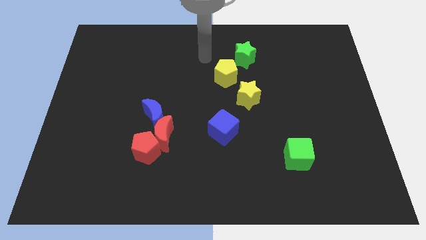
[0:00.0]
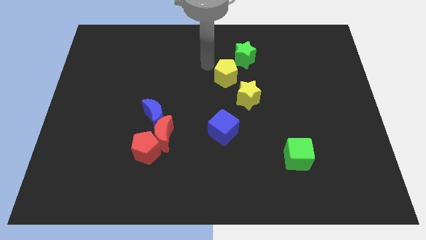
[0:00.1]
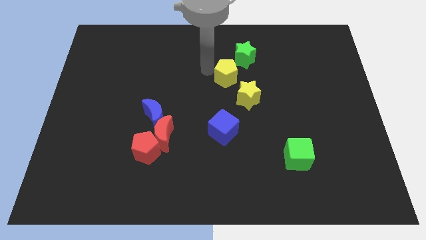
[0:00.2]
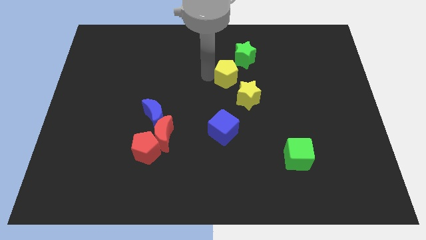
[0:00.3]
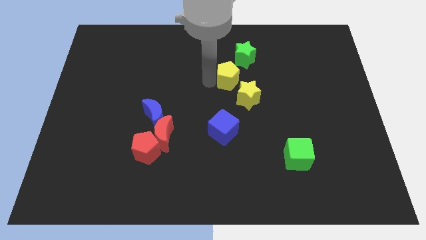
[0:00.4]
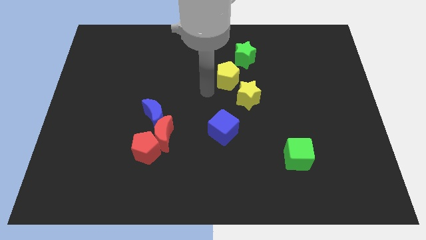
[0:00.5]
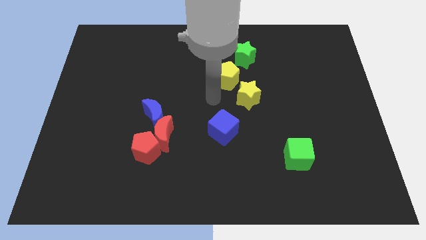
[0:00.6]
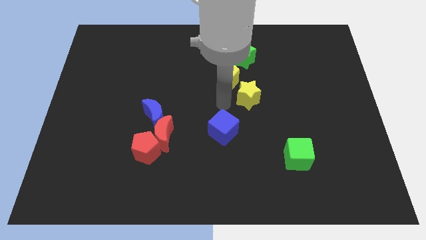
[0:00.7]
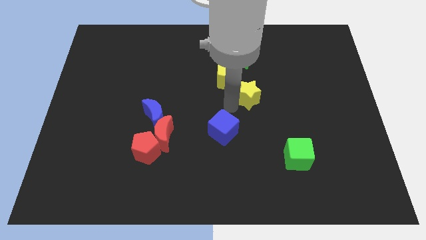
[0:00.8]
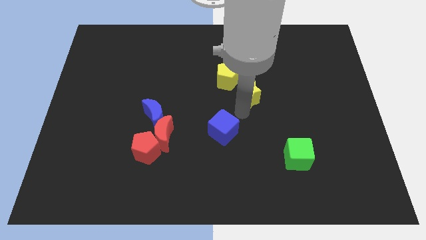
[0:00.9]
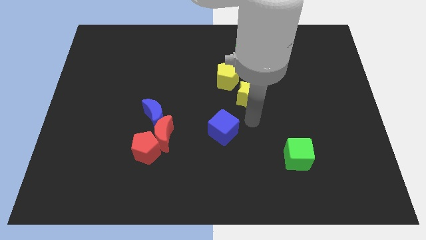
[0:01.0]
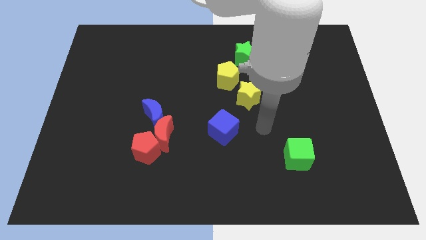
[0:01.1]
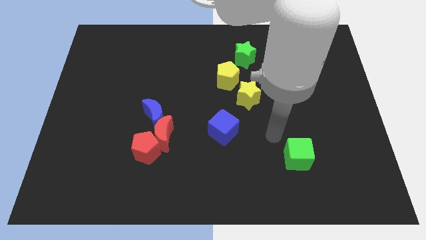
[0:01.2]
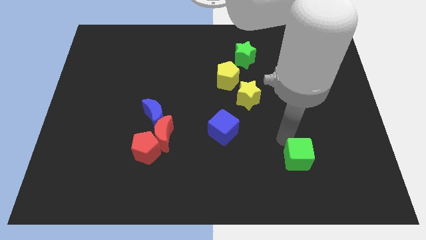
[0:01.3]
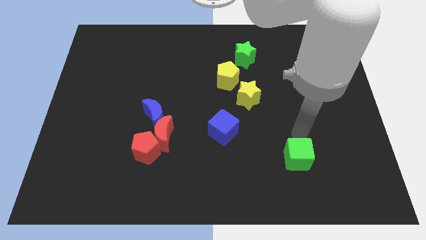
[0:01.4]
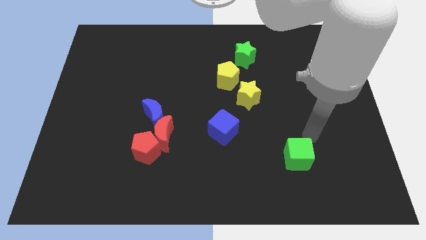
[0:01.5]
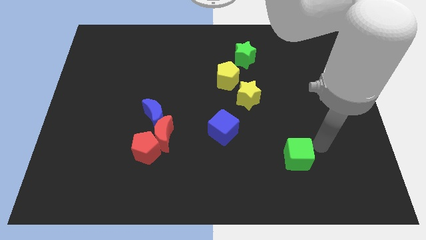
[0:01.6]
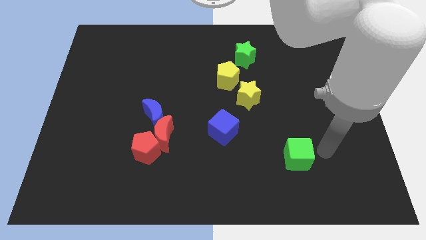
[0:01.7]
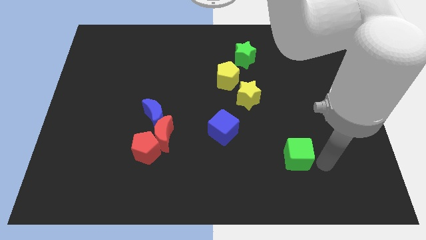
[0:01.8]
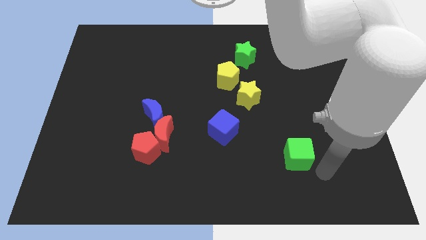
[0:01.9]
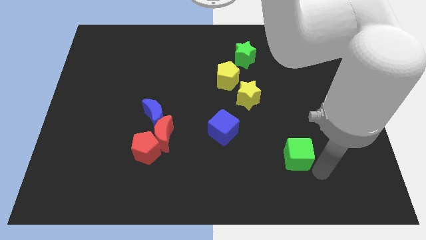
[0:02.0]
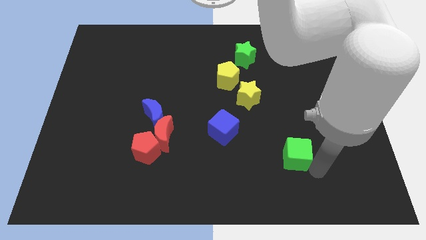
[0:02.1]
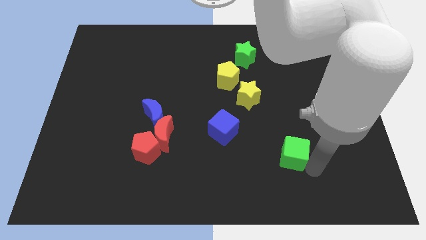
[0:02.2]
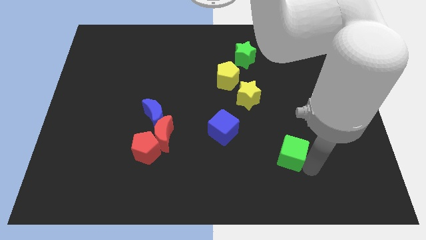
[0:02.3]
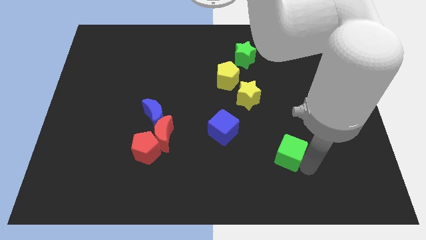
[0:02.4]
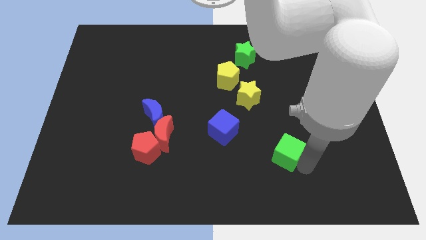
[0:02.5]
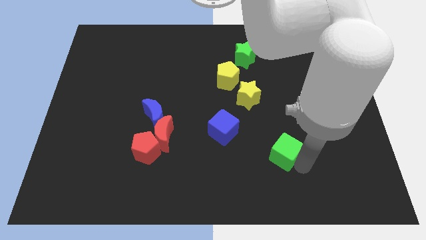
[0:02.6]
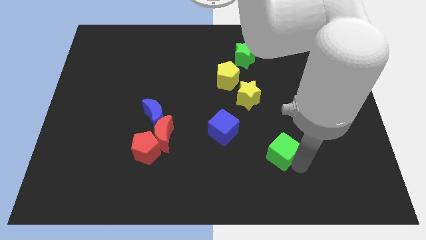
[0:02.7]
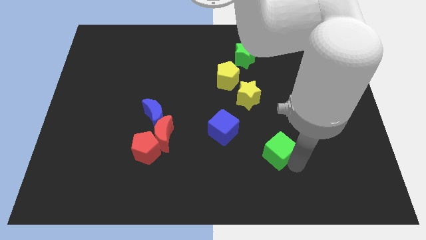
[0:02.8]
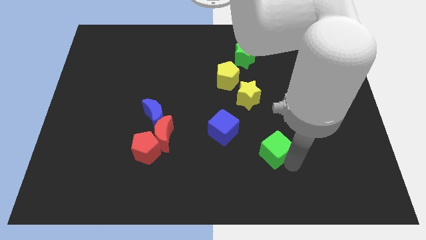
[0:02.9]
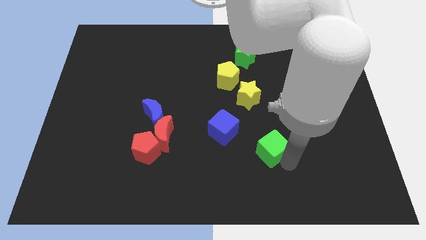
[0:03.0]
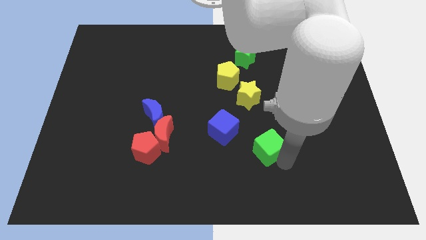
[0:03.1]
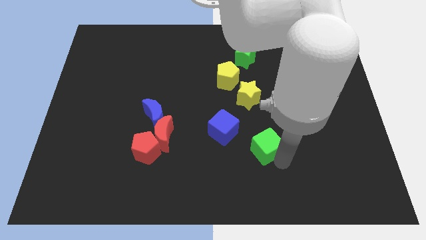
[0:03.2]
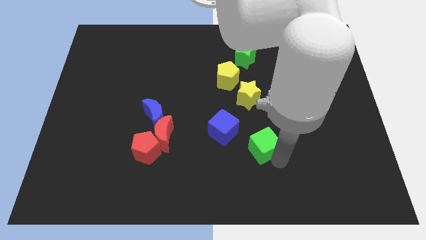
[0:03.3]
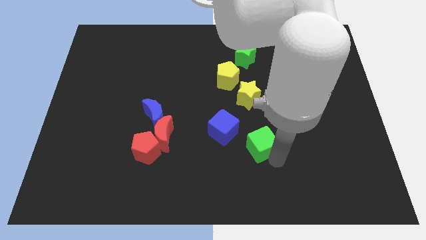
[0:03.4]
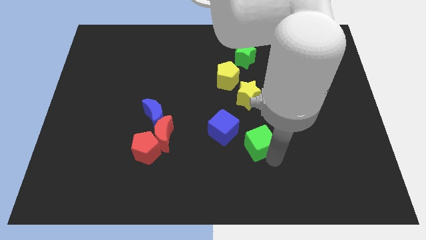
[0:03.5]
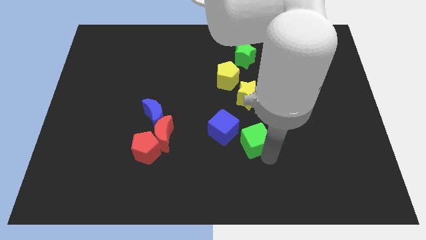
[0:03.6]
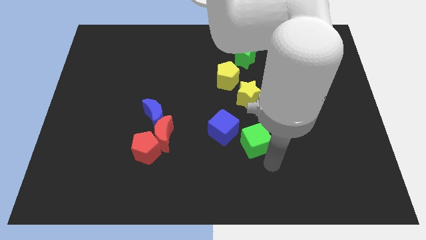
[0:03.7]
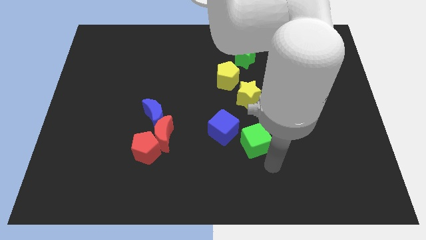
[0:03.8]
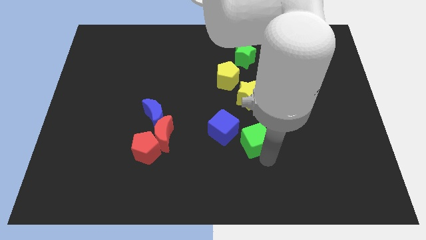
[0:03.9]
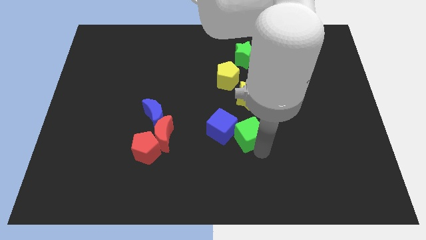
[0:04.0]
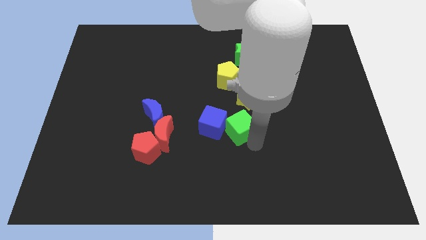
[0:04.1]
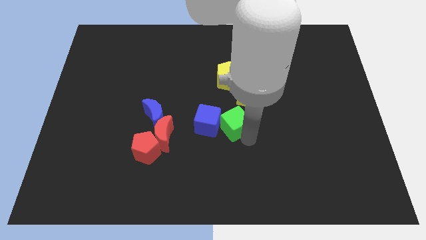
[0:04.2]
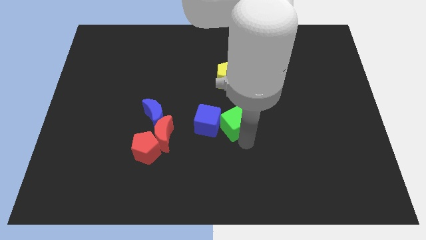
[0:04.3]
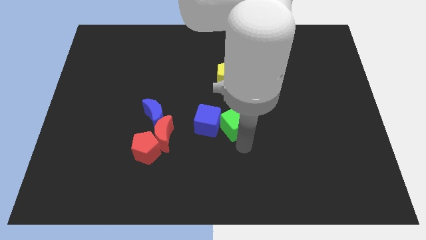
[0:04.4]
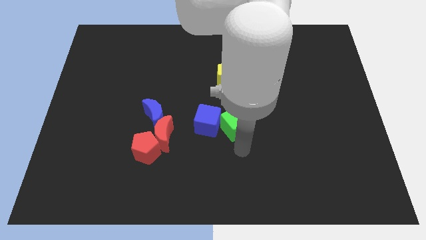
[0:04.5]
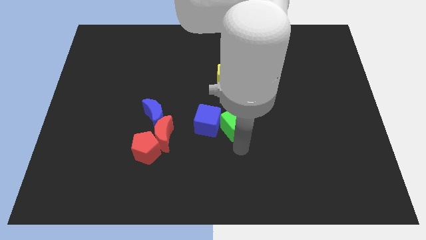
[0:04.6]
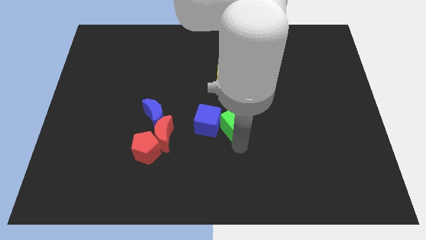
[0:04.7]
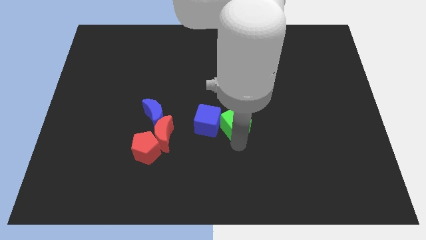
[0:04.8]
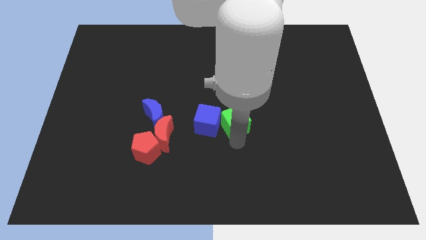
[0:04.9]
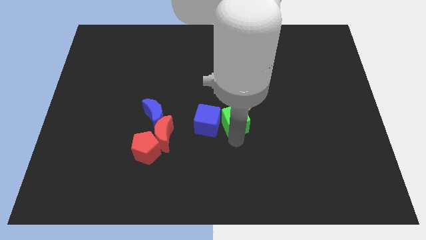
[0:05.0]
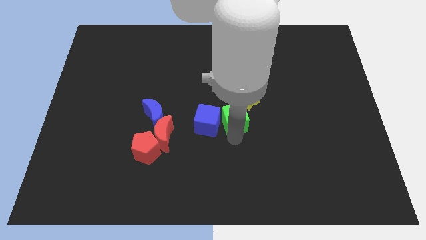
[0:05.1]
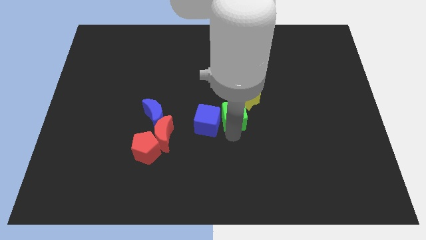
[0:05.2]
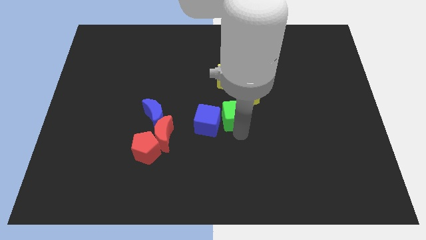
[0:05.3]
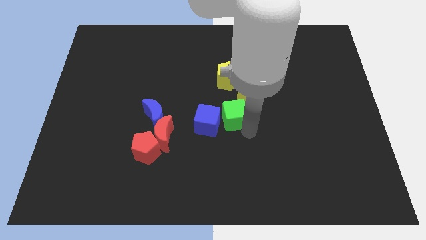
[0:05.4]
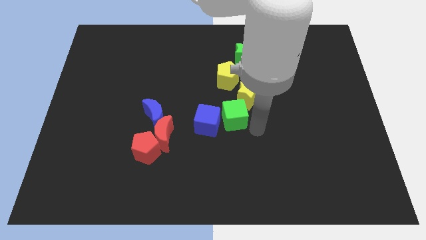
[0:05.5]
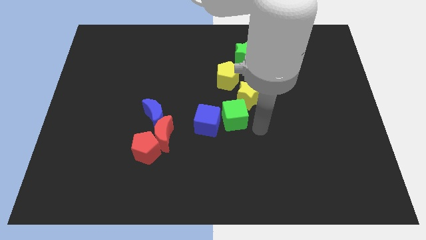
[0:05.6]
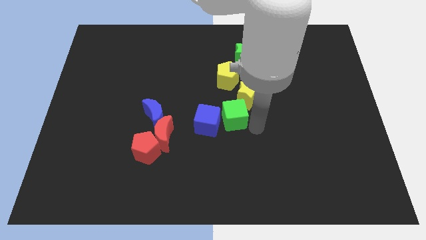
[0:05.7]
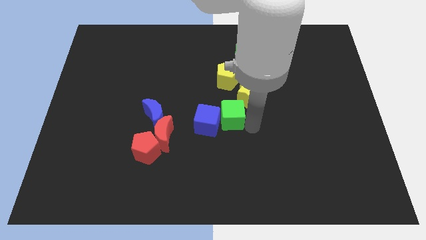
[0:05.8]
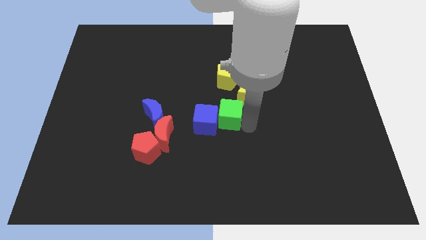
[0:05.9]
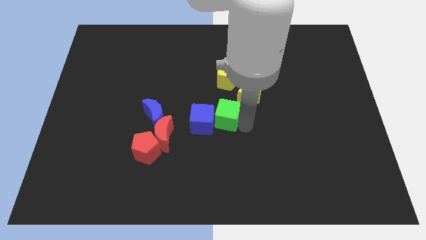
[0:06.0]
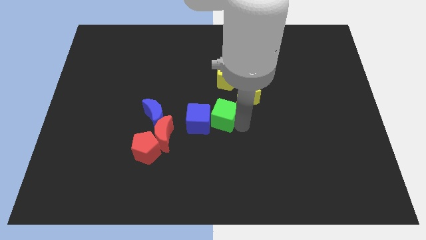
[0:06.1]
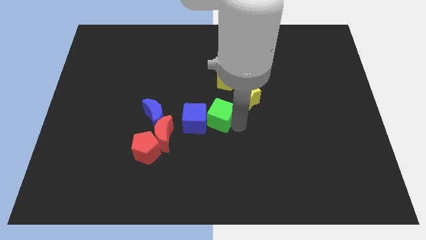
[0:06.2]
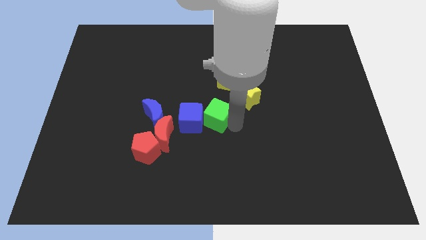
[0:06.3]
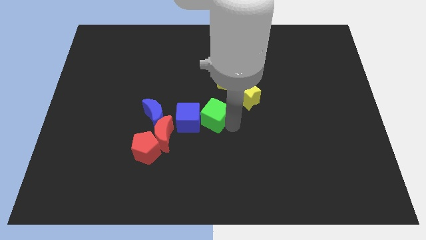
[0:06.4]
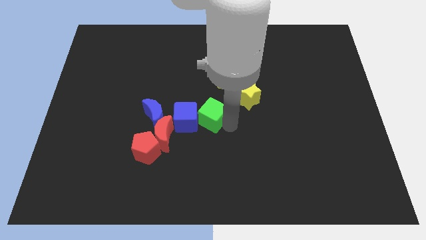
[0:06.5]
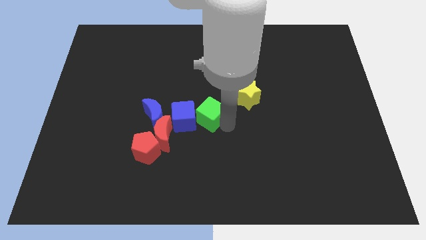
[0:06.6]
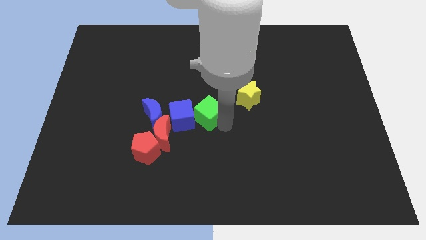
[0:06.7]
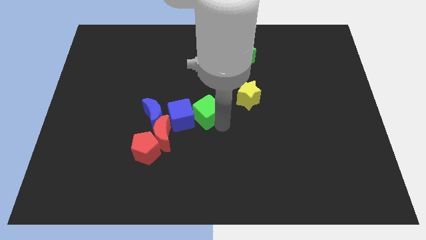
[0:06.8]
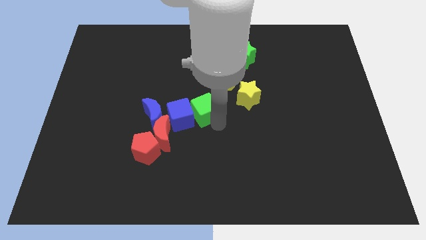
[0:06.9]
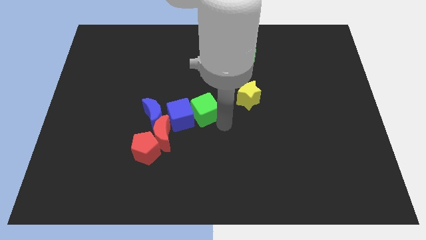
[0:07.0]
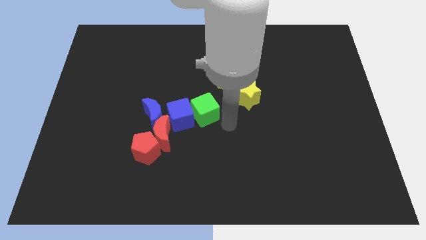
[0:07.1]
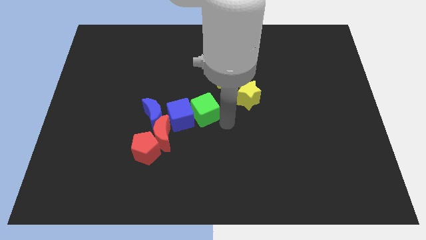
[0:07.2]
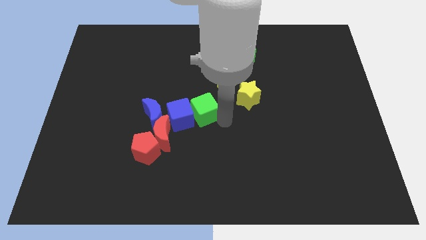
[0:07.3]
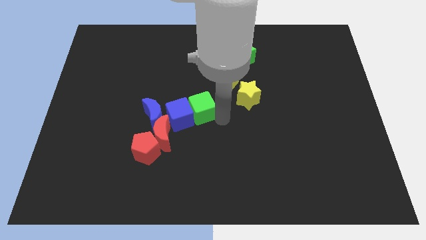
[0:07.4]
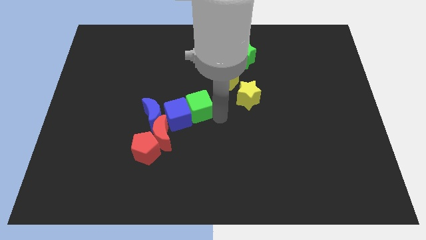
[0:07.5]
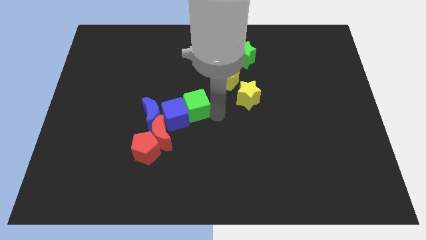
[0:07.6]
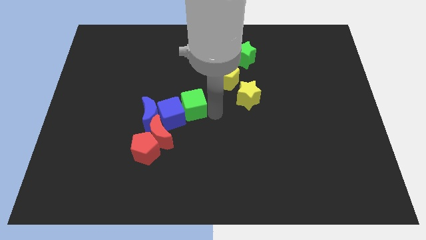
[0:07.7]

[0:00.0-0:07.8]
move the green cube diagonally up and to the right of the blue moon
